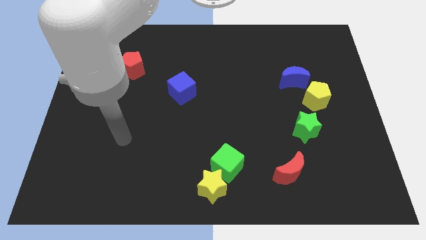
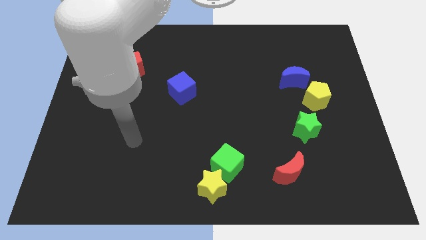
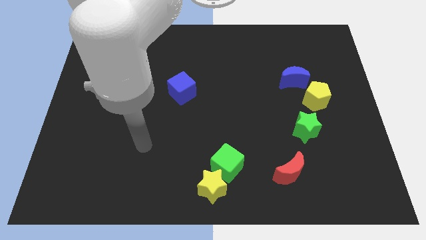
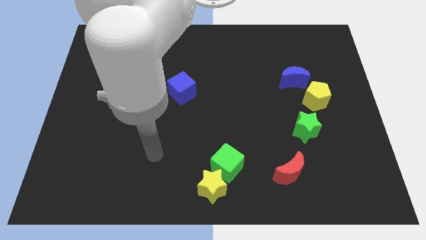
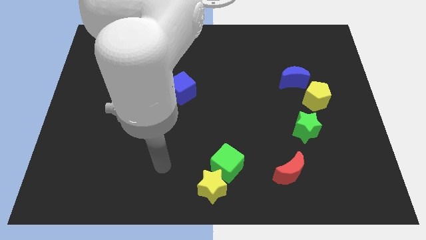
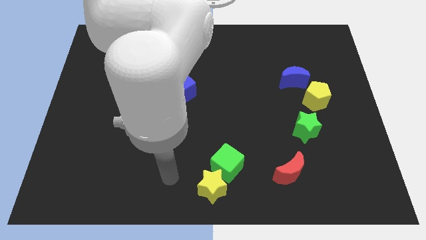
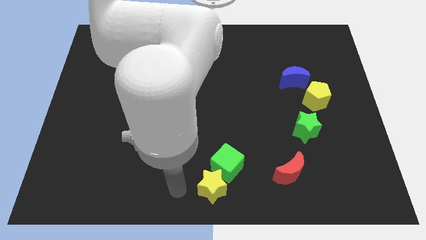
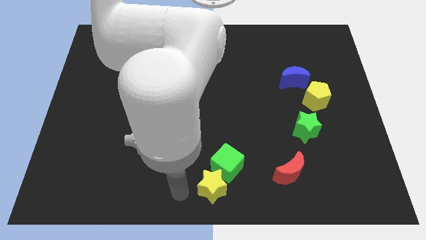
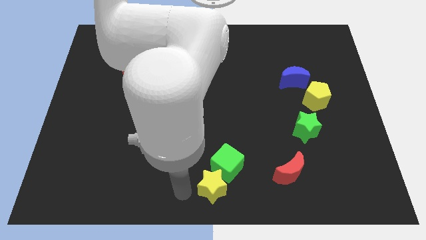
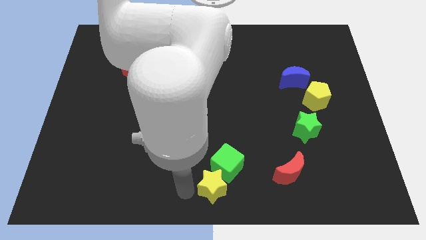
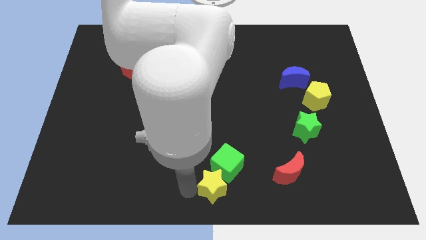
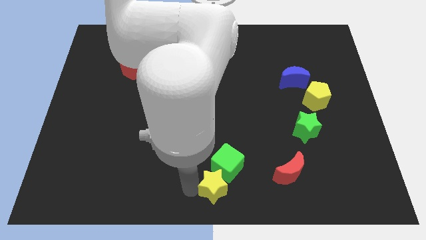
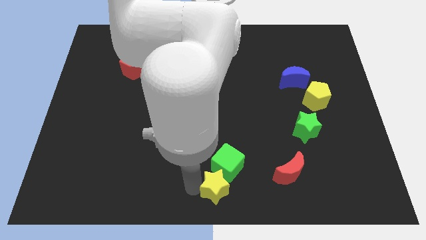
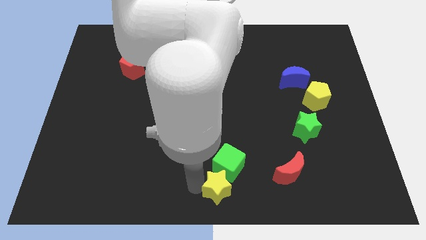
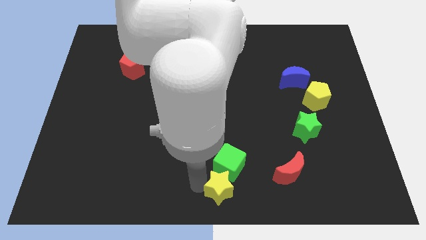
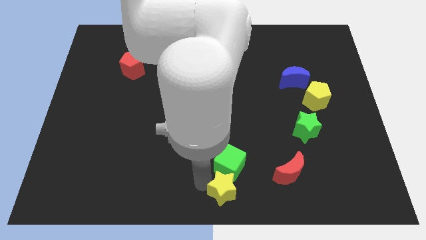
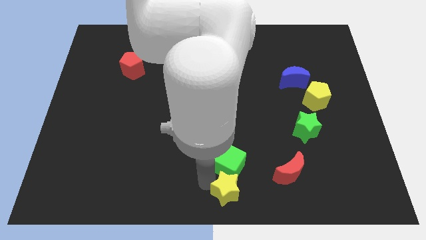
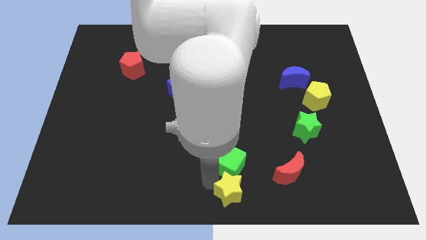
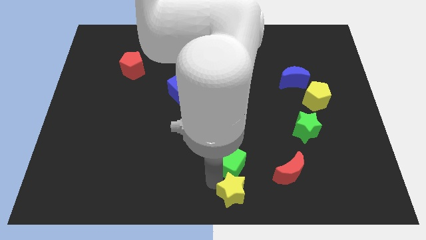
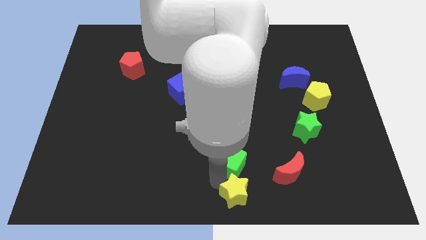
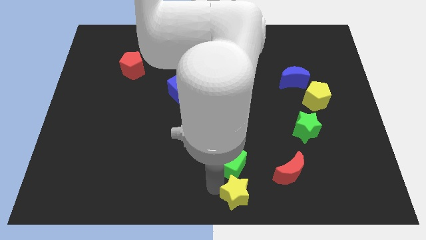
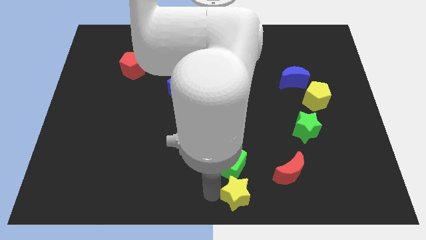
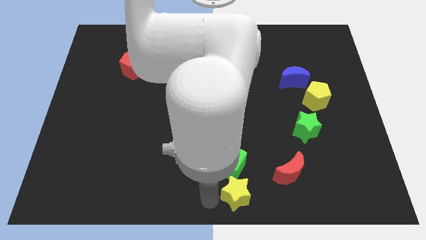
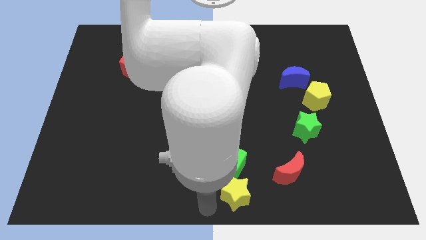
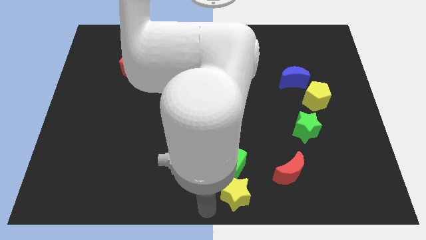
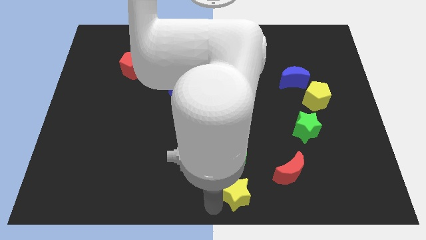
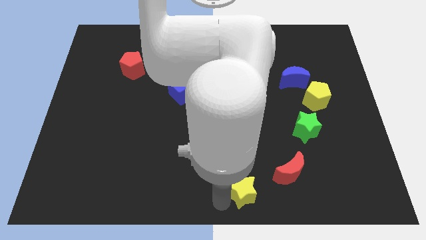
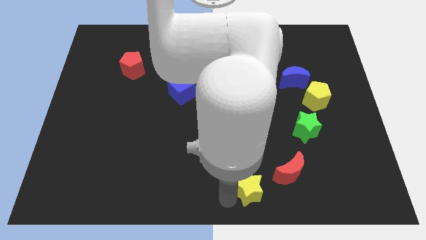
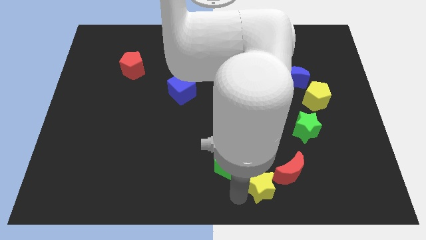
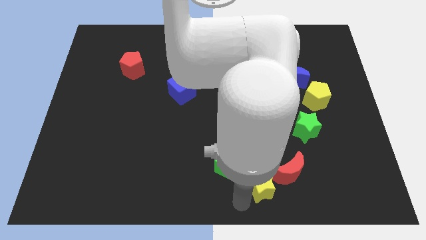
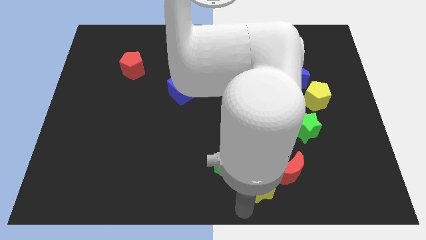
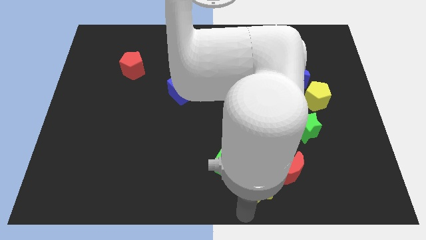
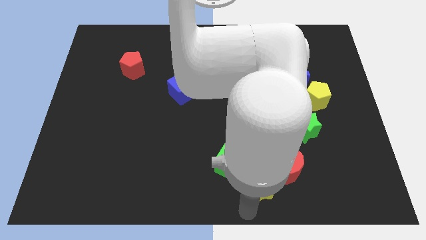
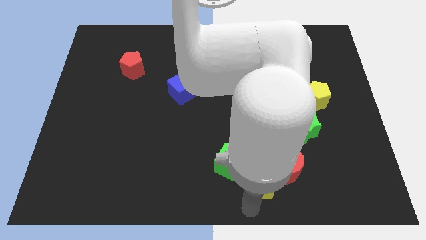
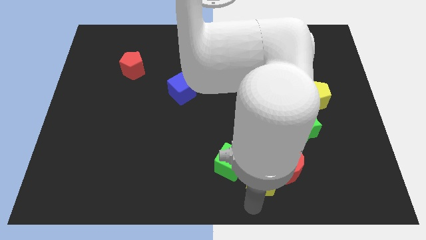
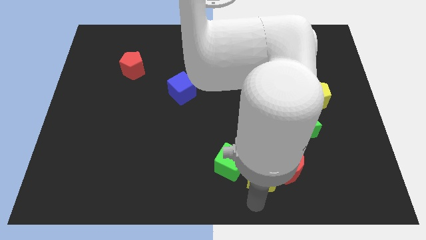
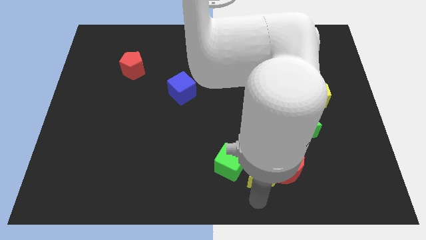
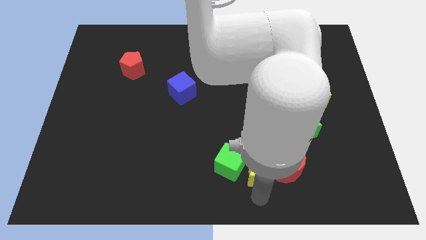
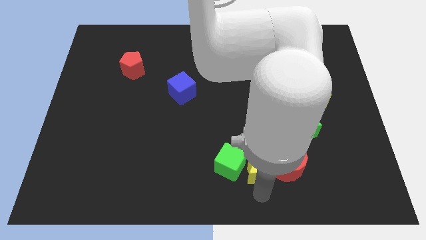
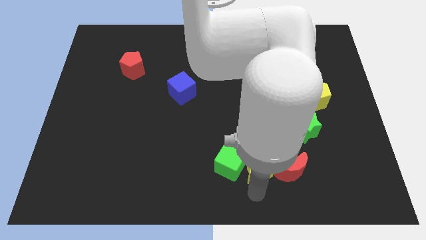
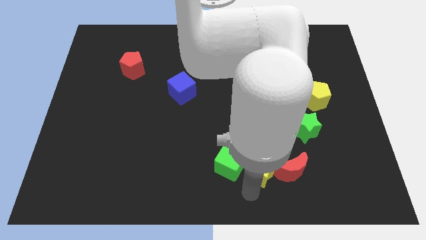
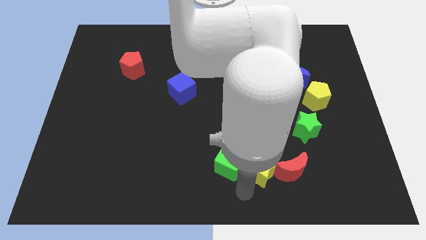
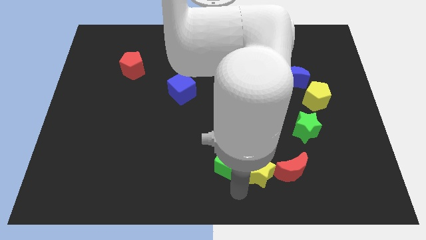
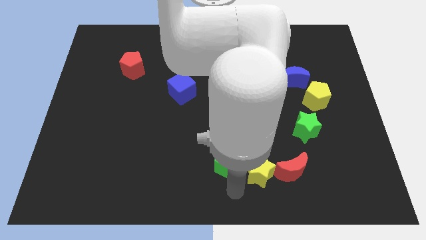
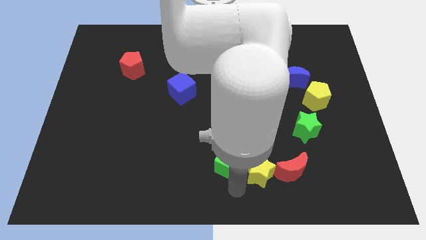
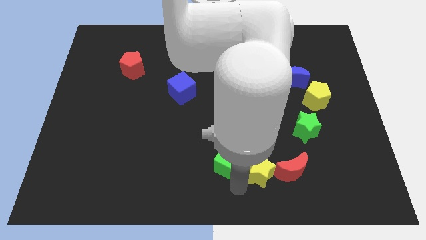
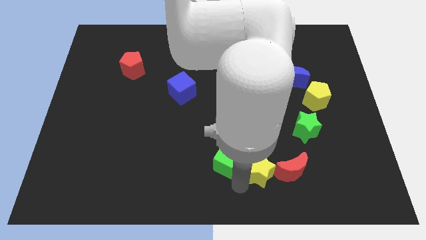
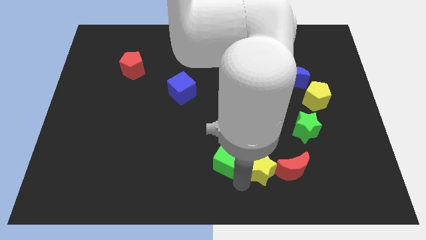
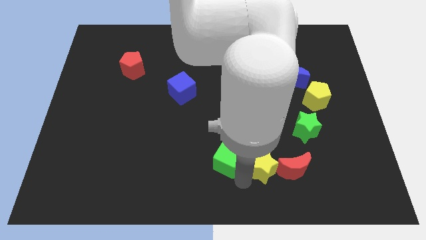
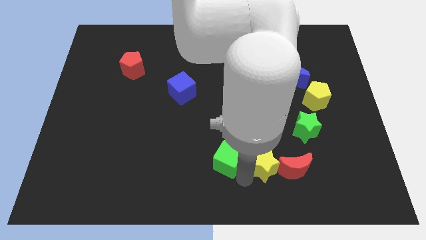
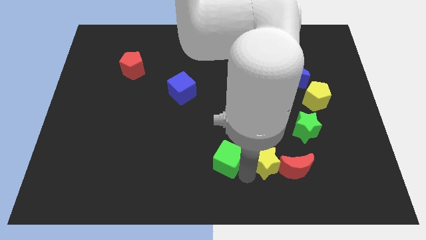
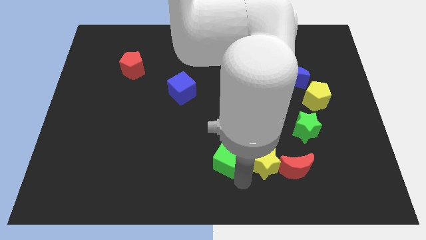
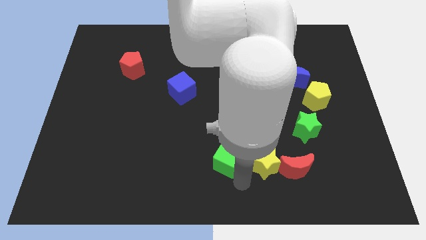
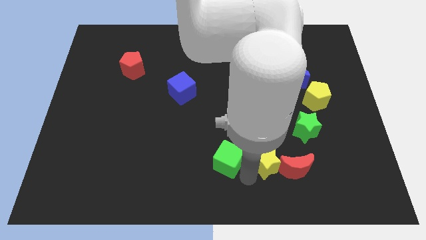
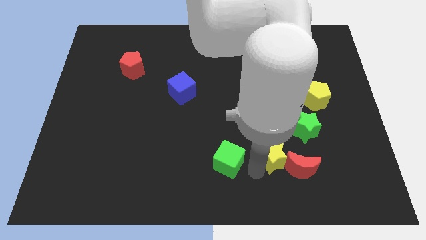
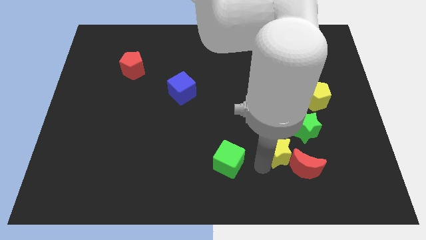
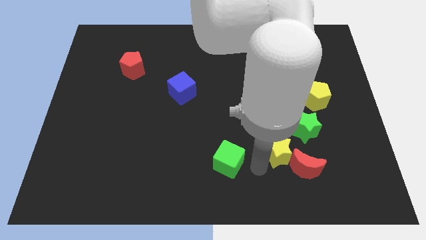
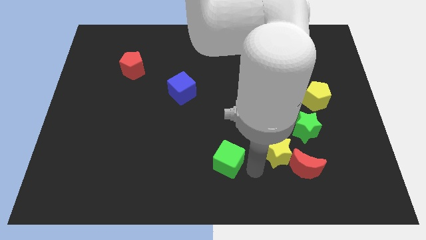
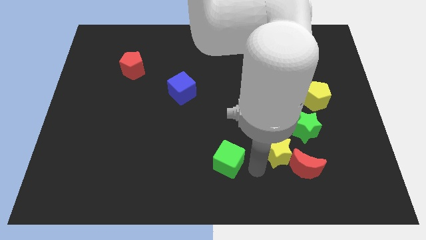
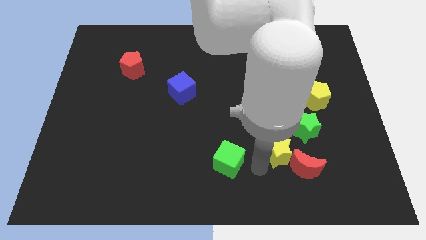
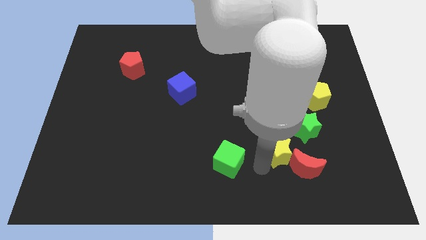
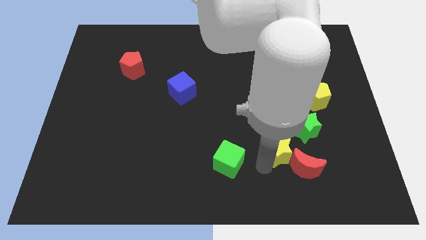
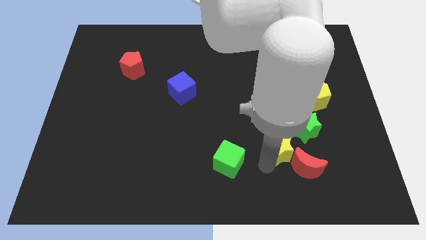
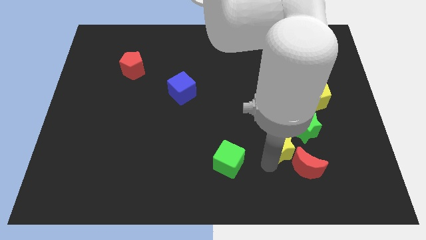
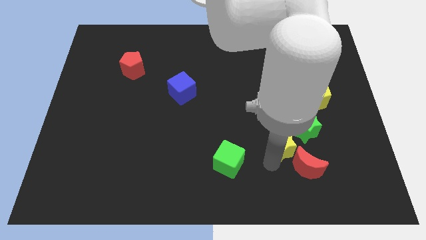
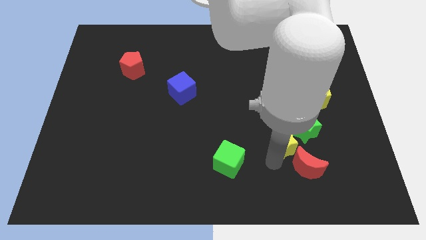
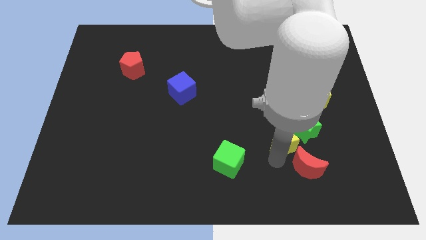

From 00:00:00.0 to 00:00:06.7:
slide the yellow star to the green star

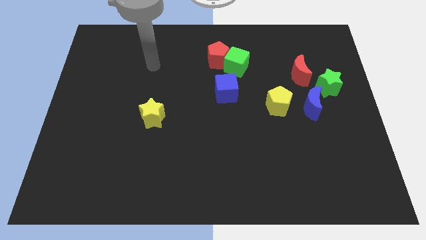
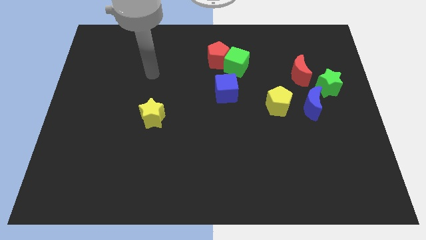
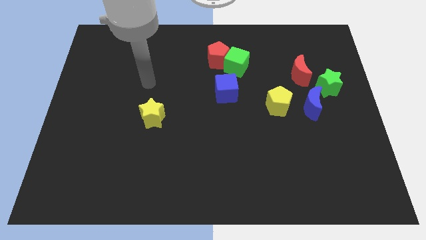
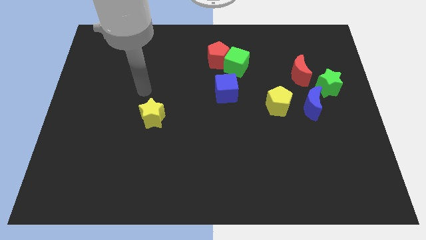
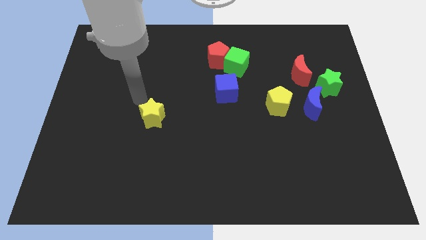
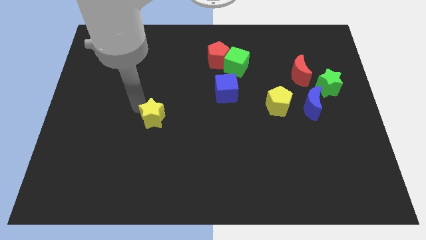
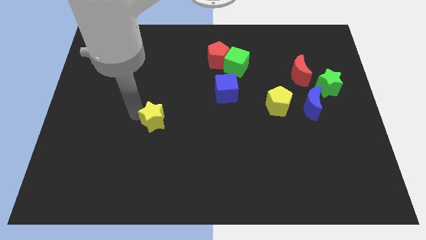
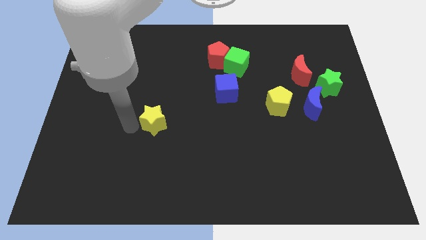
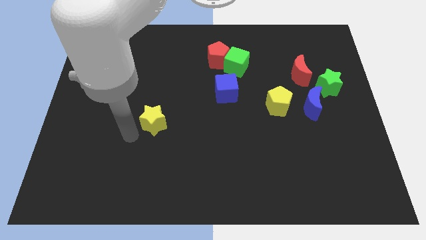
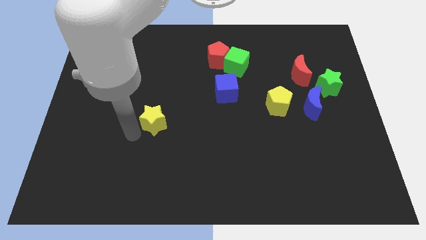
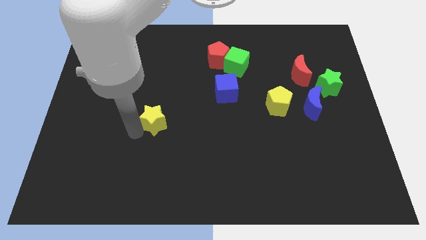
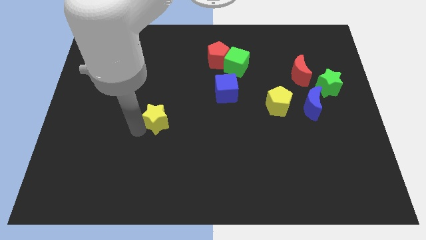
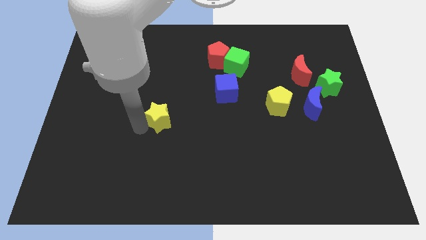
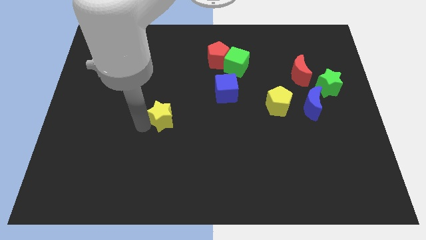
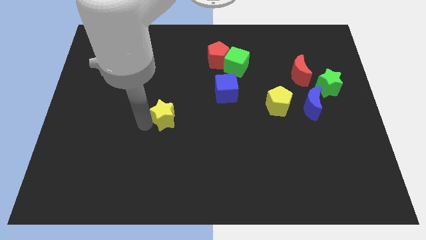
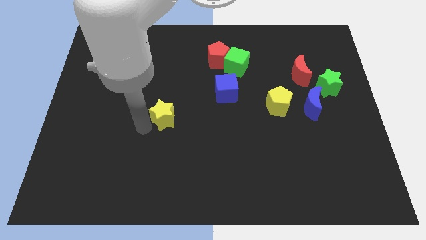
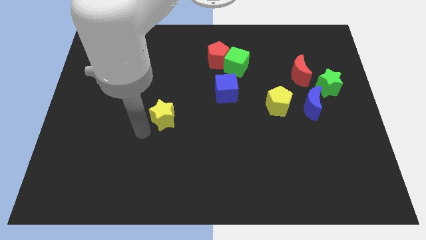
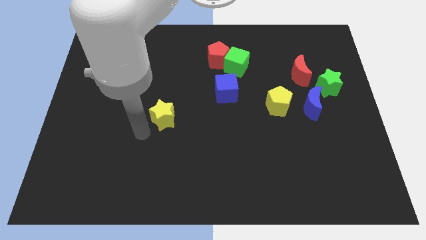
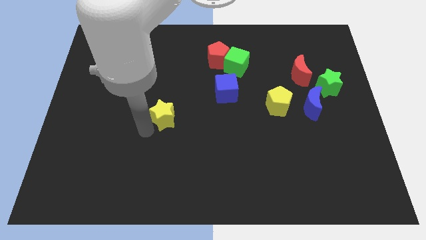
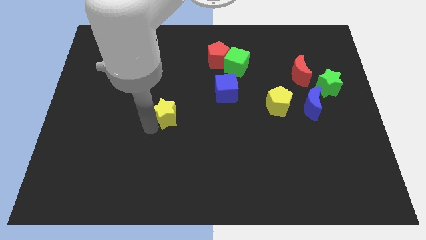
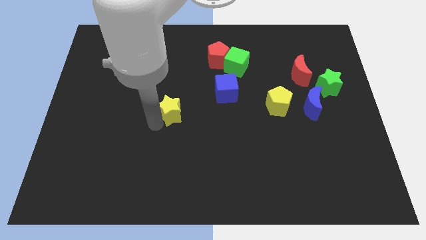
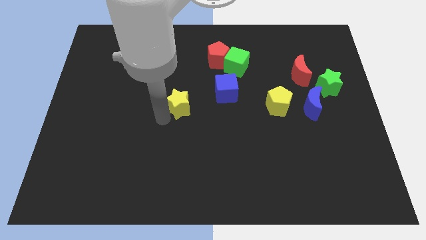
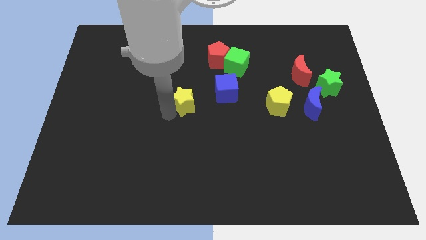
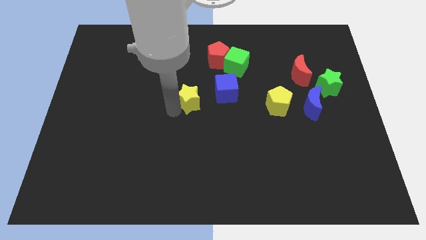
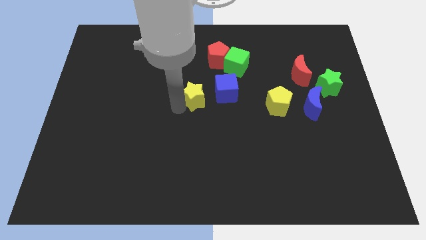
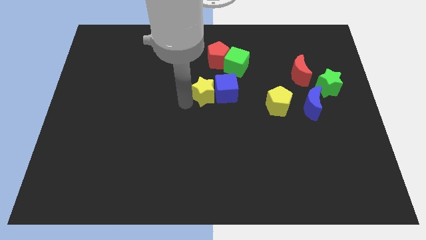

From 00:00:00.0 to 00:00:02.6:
slide the yellow star to the blue cube
